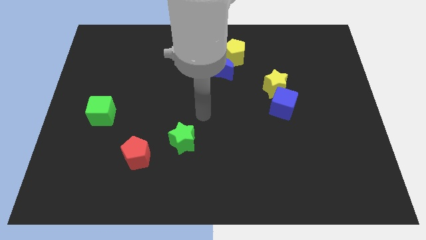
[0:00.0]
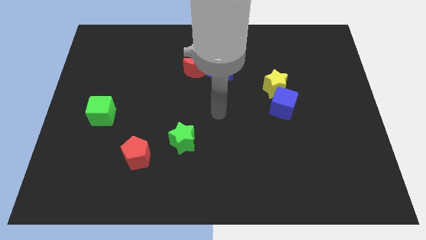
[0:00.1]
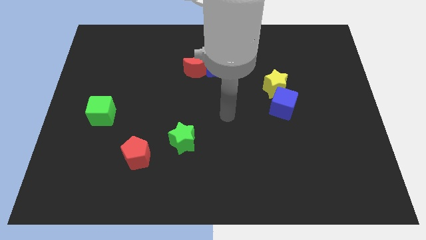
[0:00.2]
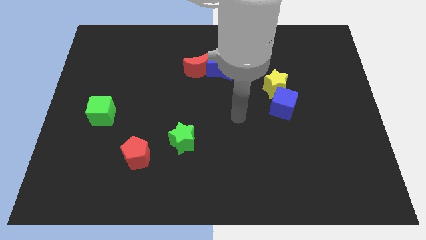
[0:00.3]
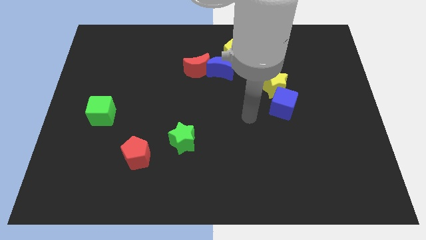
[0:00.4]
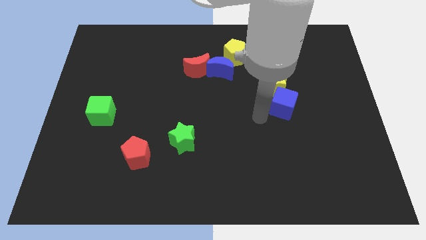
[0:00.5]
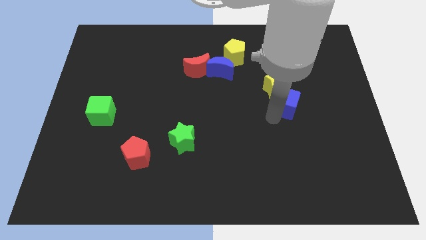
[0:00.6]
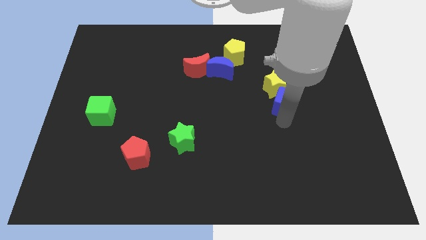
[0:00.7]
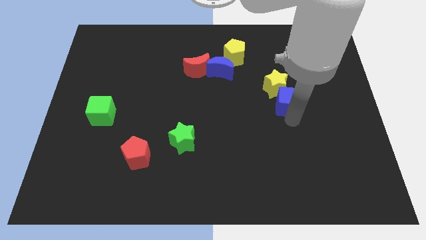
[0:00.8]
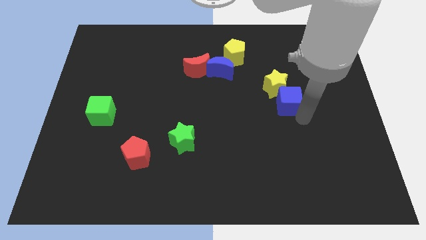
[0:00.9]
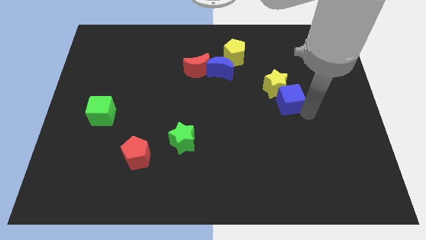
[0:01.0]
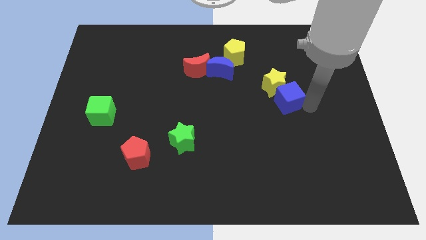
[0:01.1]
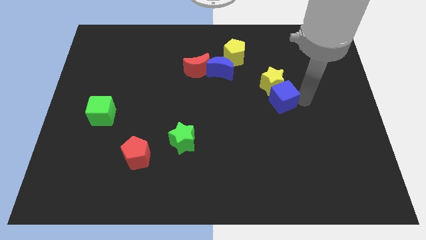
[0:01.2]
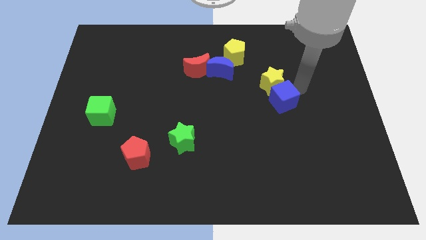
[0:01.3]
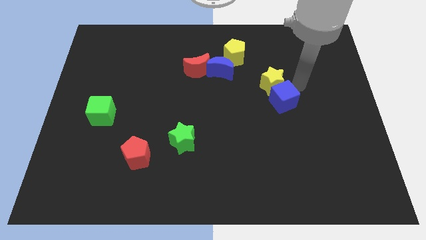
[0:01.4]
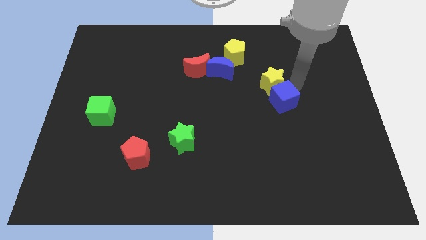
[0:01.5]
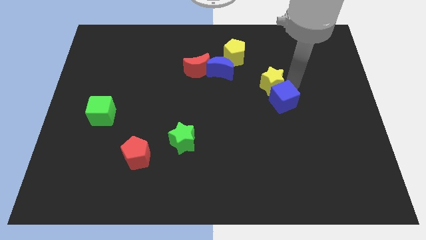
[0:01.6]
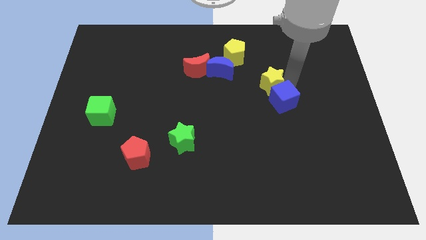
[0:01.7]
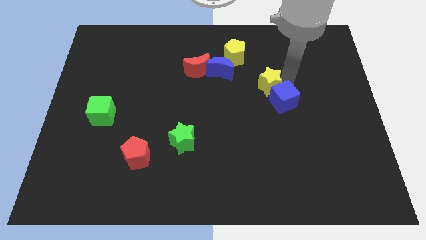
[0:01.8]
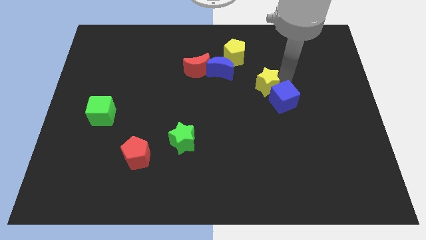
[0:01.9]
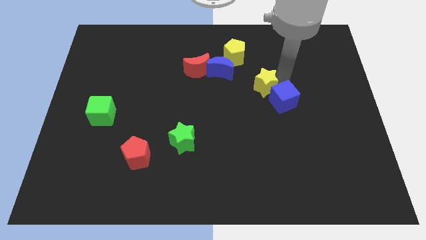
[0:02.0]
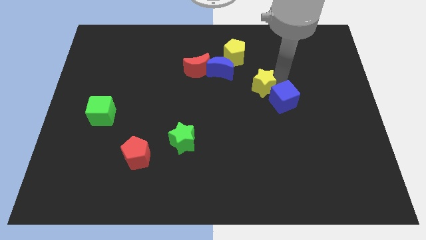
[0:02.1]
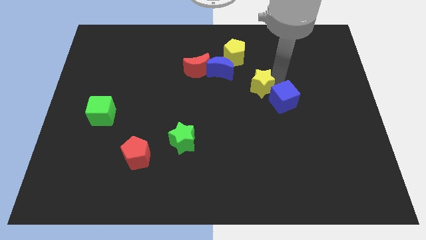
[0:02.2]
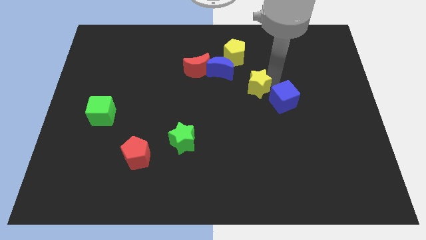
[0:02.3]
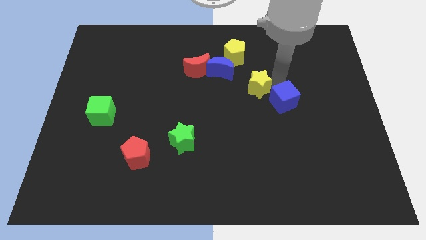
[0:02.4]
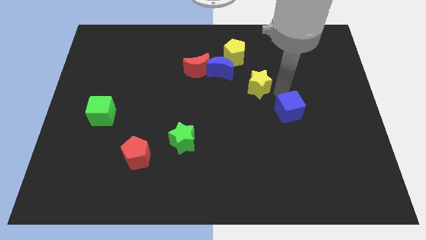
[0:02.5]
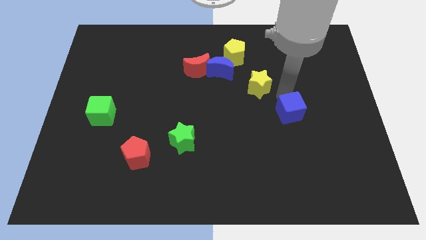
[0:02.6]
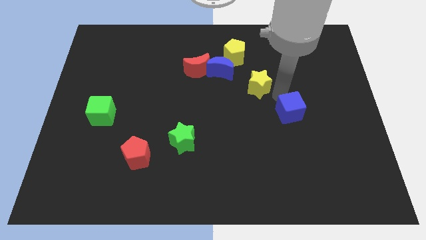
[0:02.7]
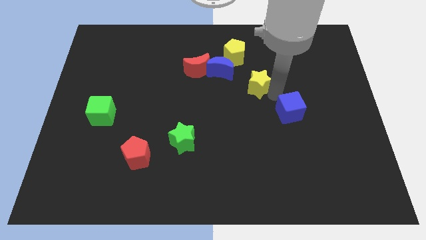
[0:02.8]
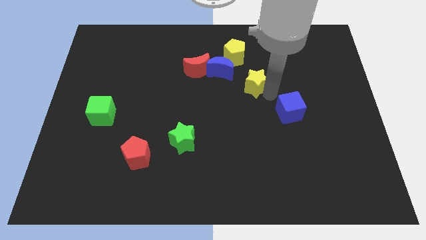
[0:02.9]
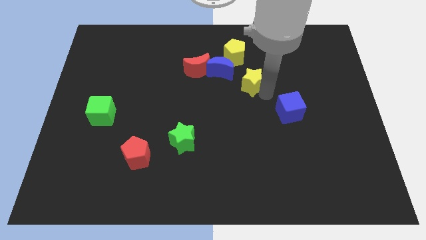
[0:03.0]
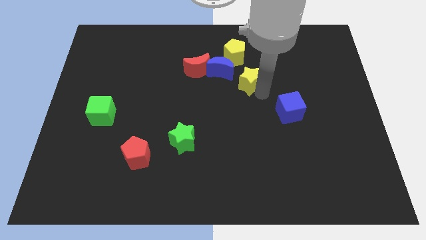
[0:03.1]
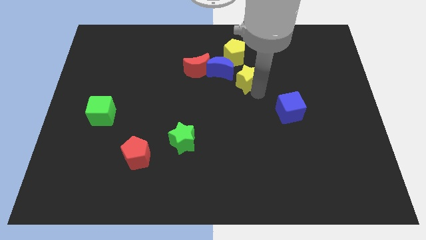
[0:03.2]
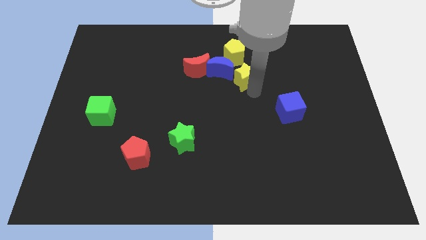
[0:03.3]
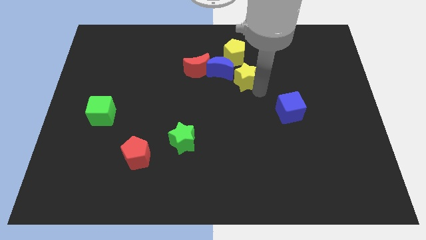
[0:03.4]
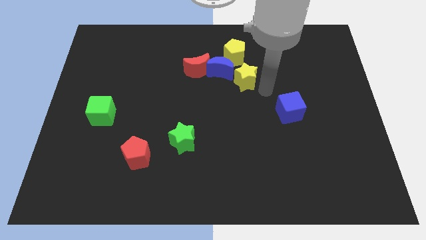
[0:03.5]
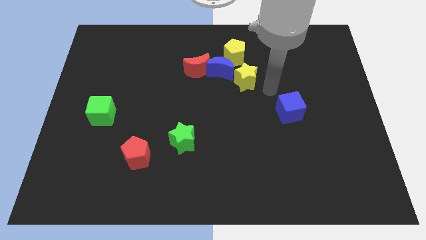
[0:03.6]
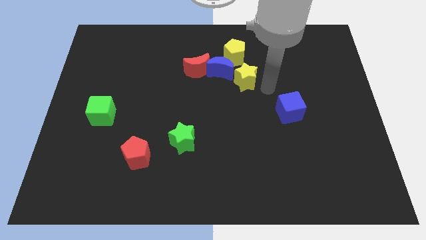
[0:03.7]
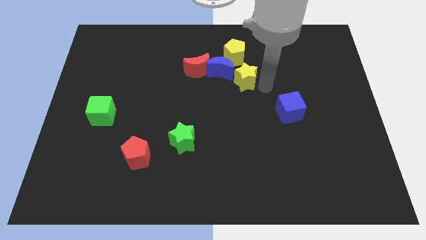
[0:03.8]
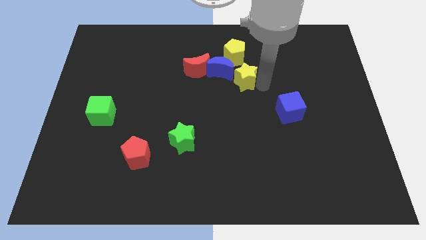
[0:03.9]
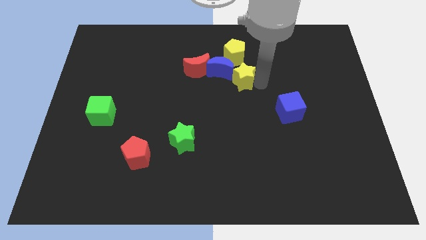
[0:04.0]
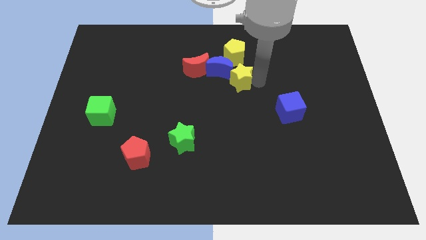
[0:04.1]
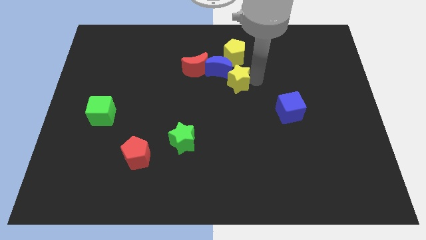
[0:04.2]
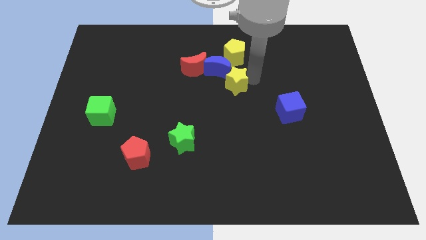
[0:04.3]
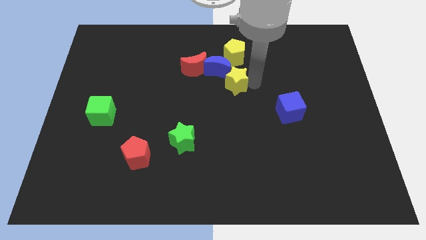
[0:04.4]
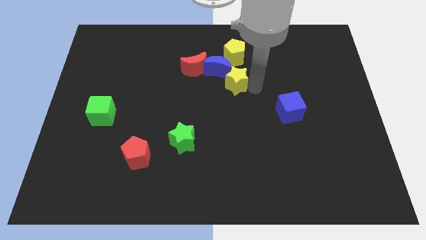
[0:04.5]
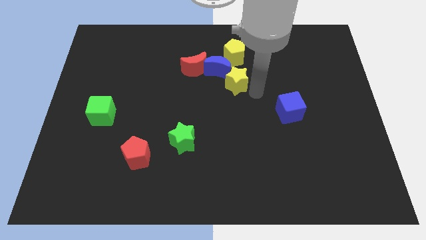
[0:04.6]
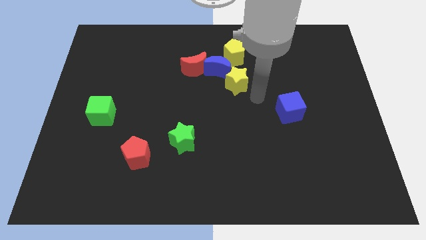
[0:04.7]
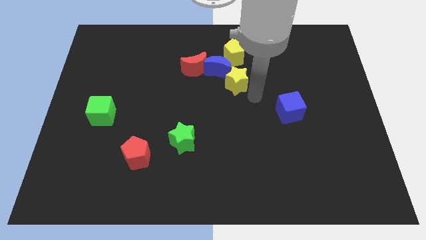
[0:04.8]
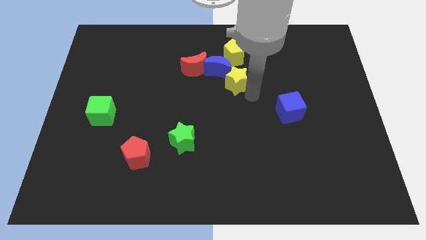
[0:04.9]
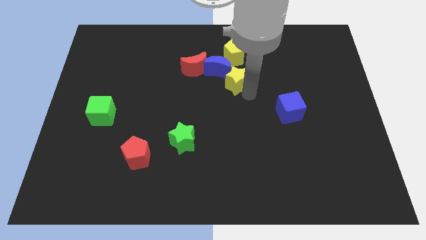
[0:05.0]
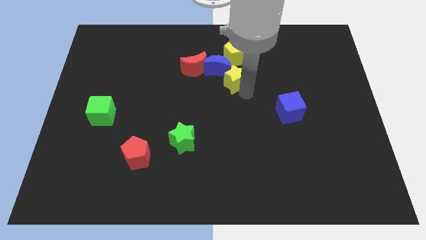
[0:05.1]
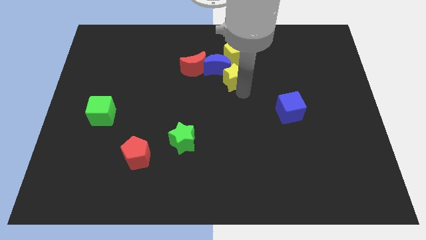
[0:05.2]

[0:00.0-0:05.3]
push the yellow star close to the blue moon

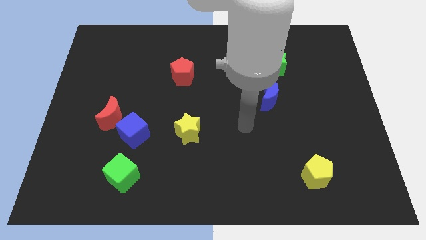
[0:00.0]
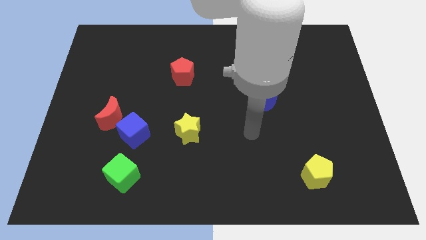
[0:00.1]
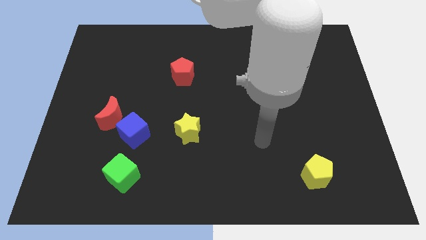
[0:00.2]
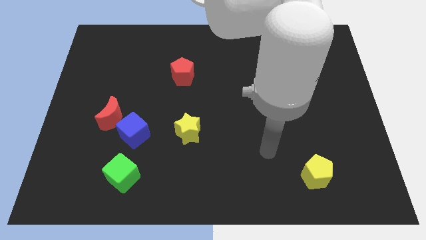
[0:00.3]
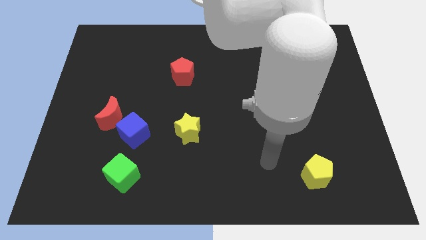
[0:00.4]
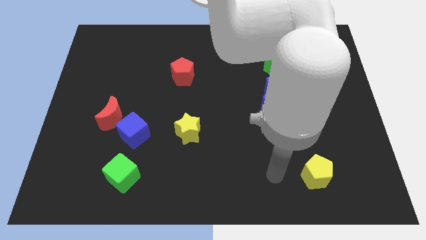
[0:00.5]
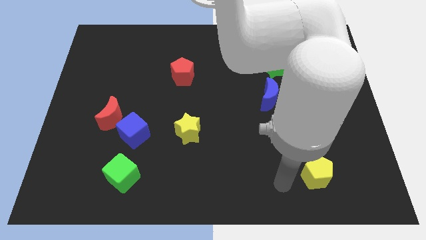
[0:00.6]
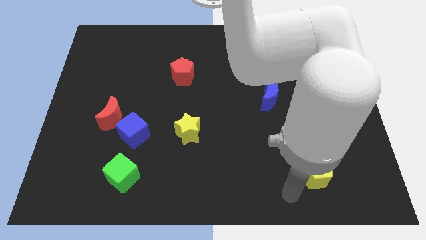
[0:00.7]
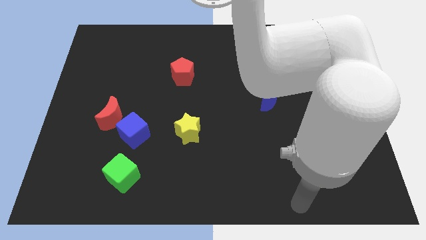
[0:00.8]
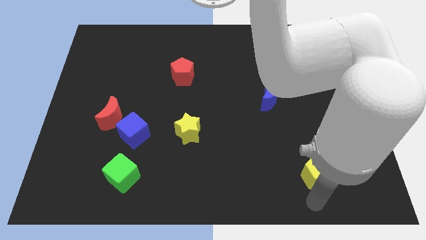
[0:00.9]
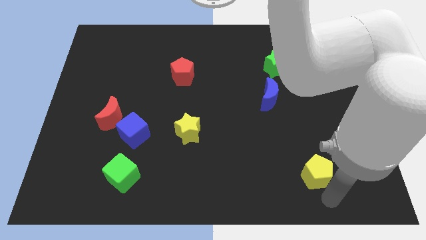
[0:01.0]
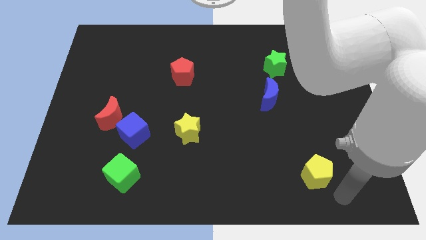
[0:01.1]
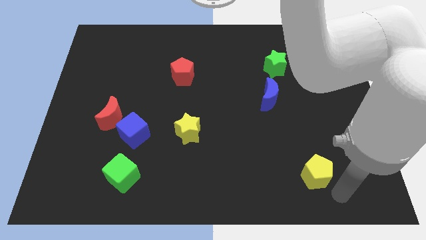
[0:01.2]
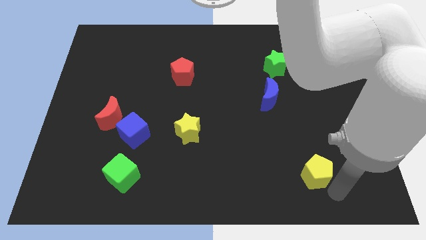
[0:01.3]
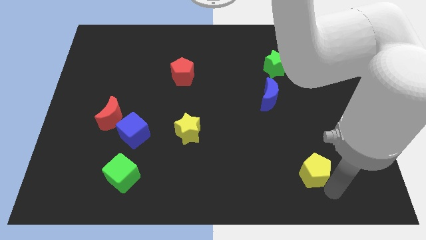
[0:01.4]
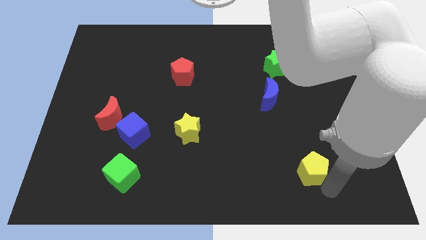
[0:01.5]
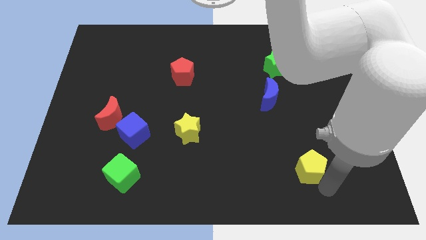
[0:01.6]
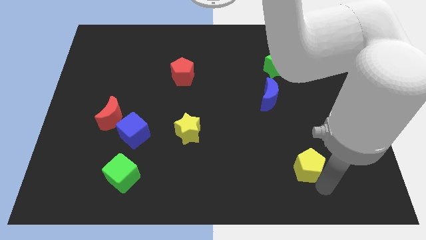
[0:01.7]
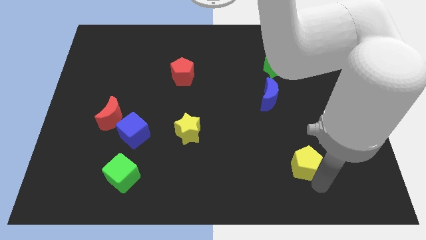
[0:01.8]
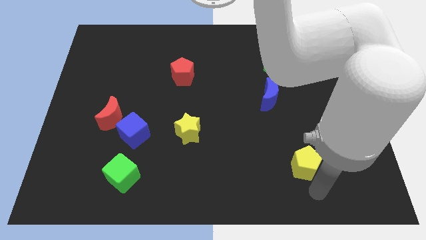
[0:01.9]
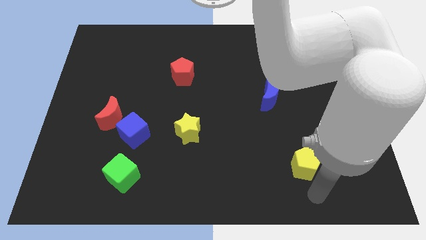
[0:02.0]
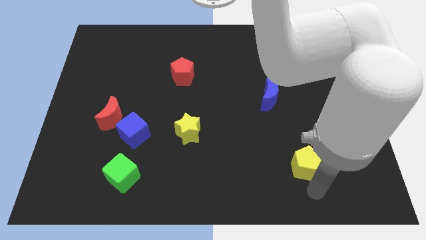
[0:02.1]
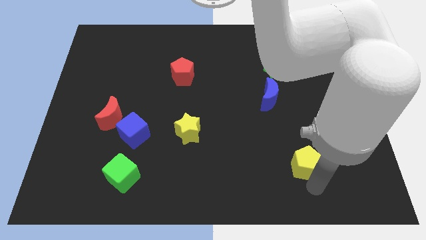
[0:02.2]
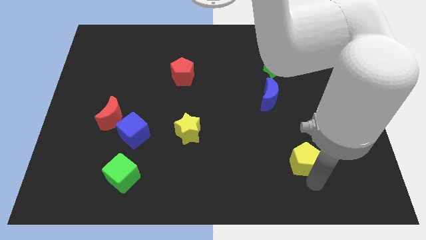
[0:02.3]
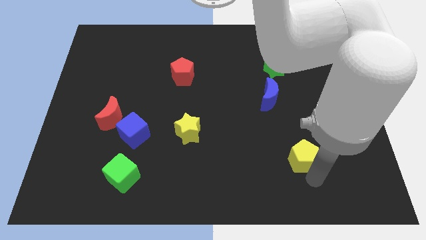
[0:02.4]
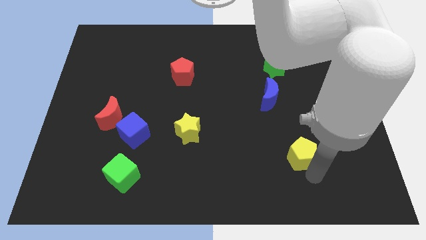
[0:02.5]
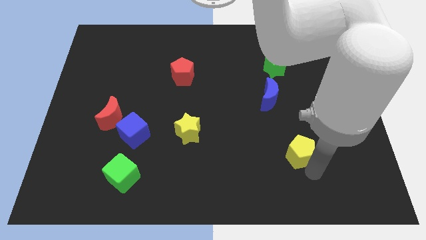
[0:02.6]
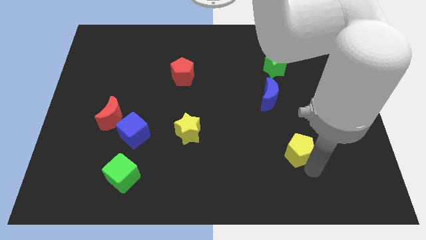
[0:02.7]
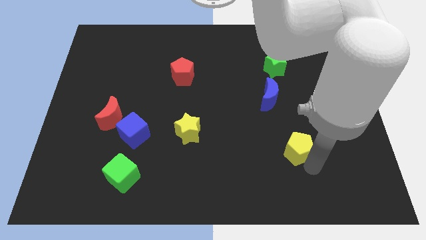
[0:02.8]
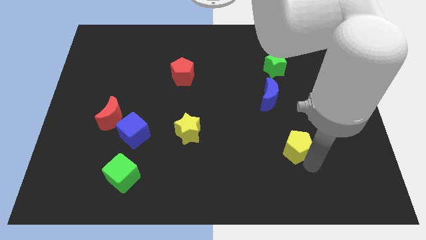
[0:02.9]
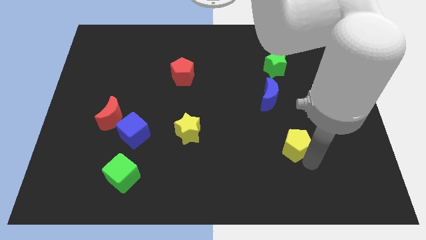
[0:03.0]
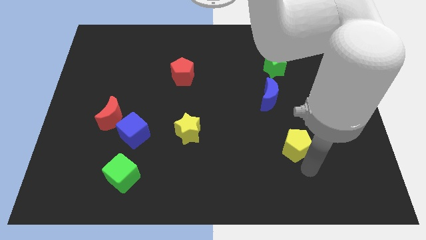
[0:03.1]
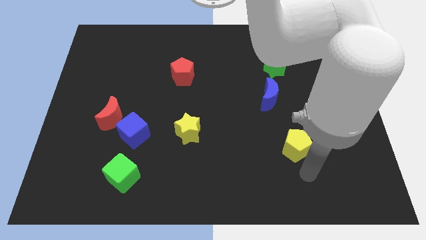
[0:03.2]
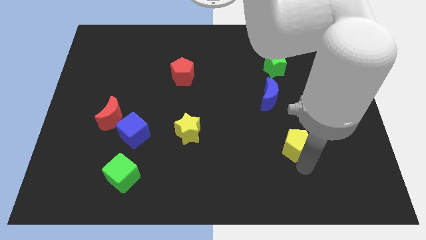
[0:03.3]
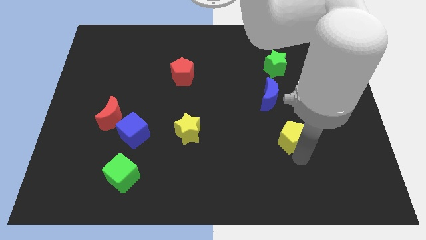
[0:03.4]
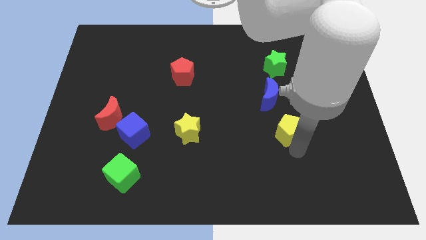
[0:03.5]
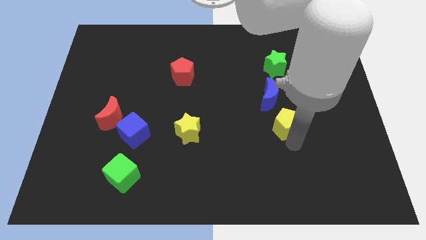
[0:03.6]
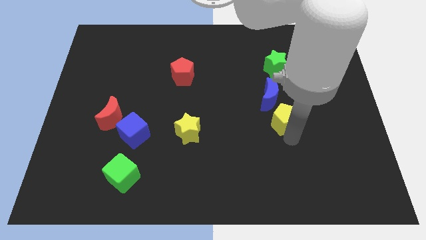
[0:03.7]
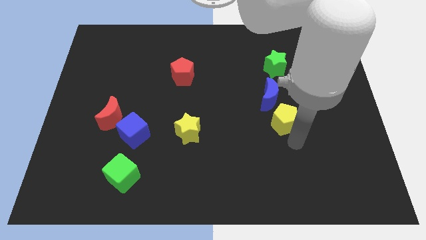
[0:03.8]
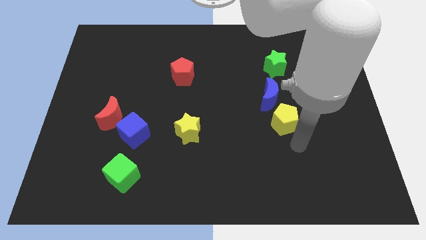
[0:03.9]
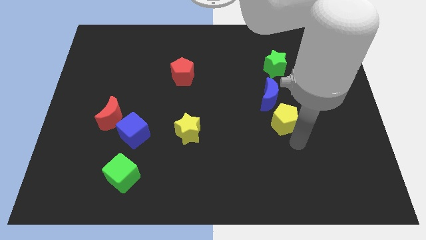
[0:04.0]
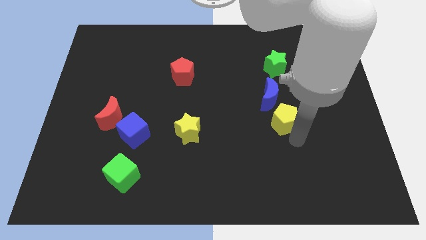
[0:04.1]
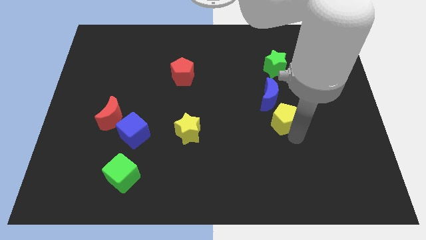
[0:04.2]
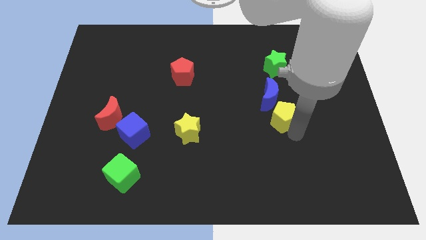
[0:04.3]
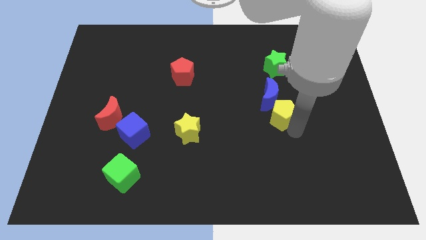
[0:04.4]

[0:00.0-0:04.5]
slide the yellow pentagon next to the blue moon
